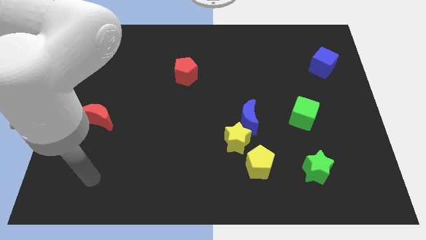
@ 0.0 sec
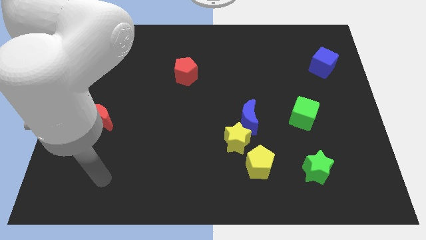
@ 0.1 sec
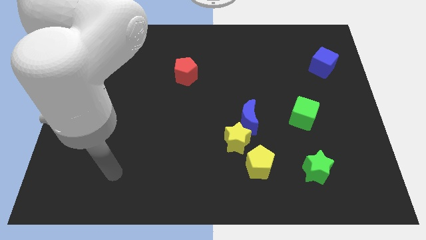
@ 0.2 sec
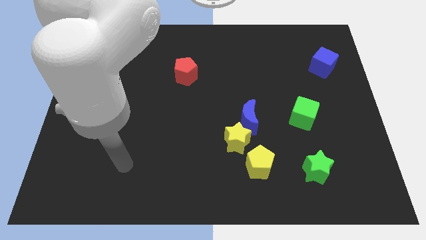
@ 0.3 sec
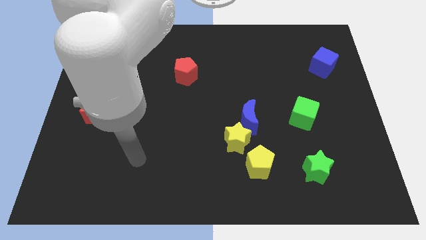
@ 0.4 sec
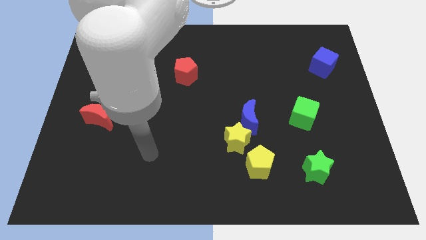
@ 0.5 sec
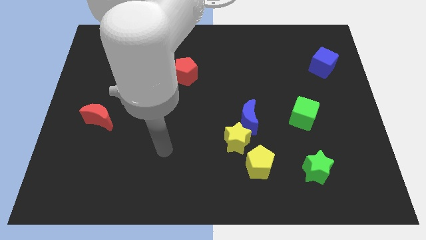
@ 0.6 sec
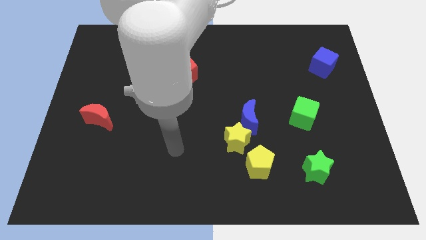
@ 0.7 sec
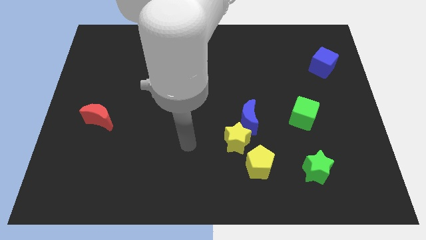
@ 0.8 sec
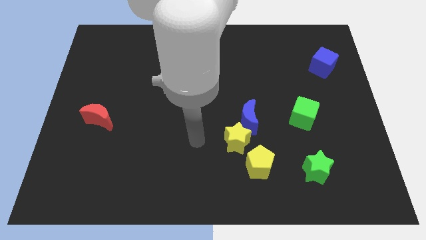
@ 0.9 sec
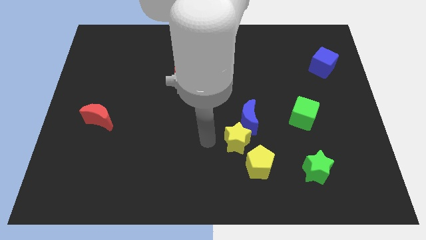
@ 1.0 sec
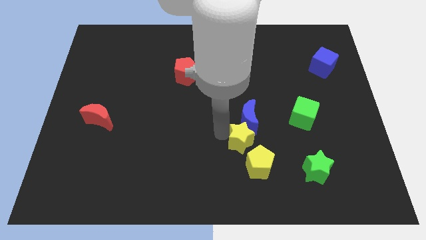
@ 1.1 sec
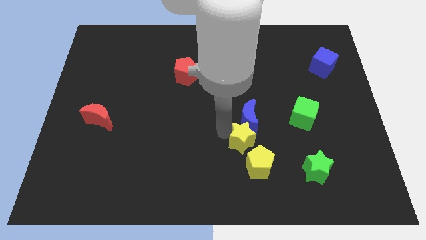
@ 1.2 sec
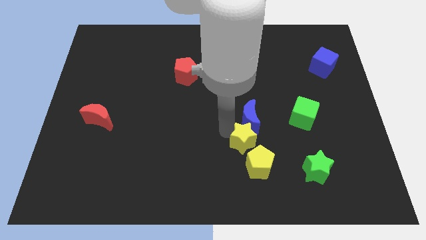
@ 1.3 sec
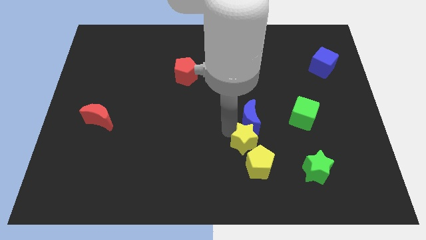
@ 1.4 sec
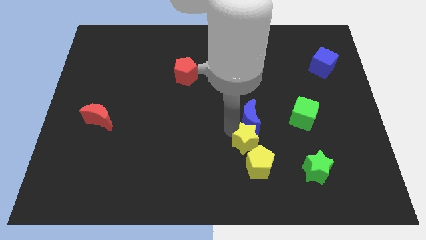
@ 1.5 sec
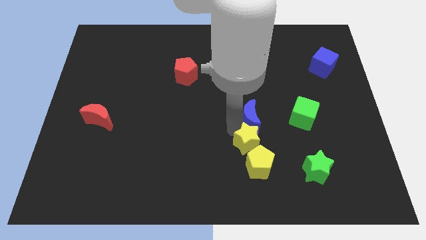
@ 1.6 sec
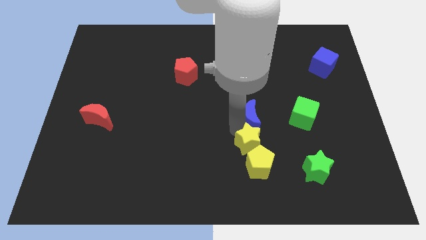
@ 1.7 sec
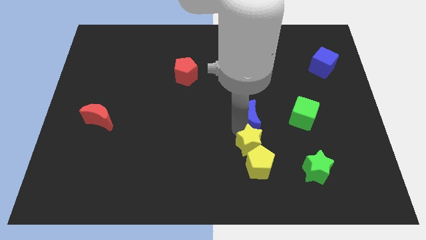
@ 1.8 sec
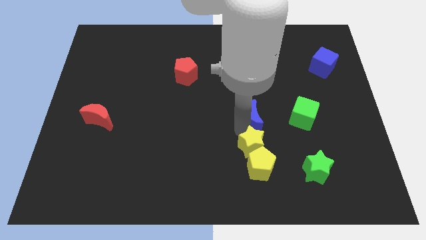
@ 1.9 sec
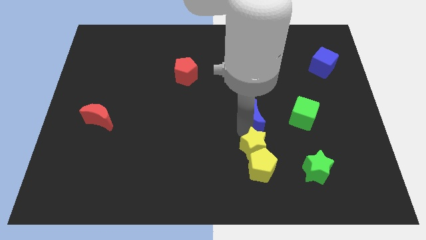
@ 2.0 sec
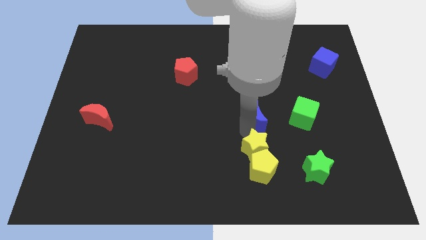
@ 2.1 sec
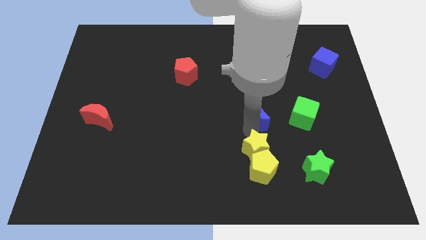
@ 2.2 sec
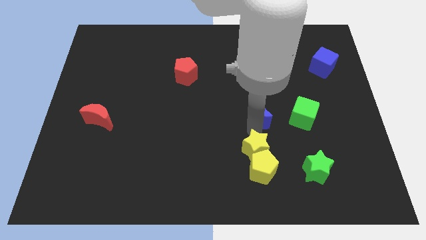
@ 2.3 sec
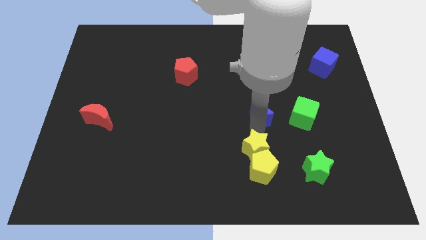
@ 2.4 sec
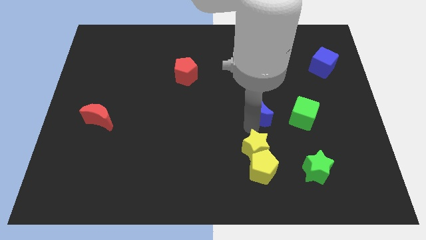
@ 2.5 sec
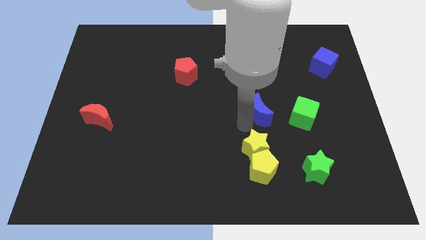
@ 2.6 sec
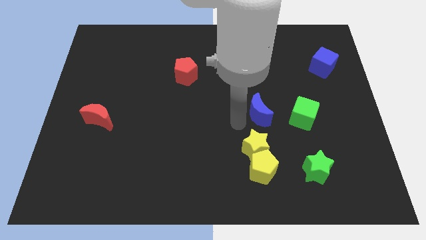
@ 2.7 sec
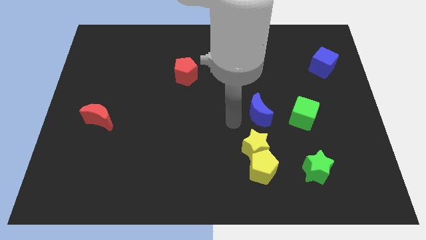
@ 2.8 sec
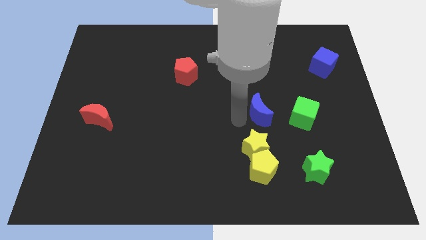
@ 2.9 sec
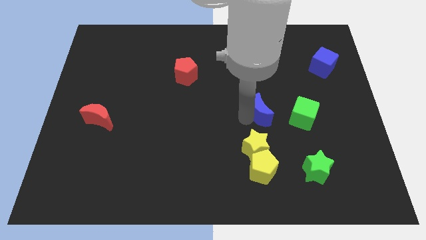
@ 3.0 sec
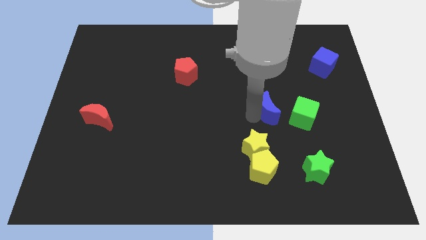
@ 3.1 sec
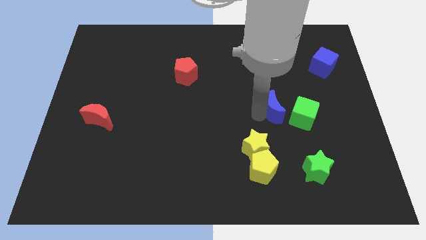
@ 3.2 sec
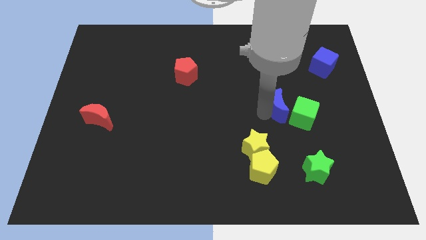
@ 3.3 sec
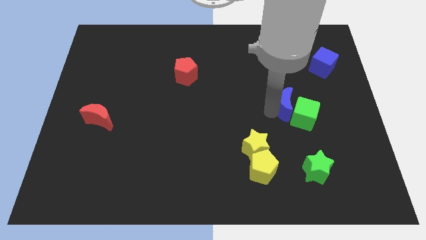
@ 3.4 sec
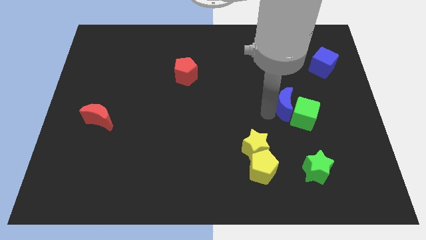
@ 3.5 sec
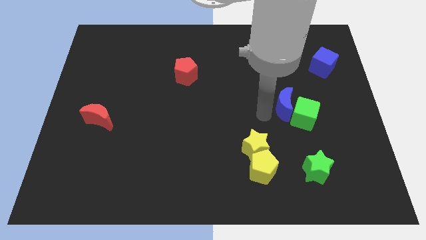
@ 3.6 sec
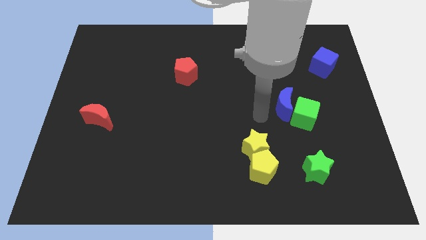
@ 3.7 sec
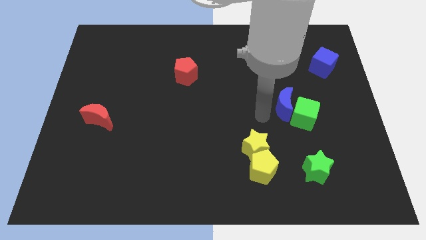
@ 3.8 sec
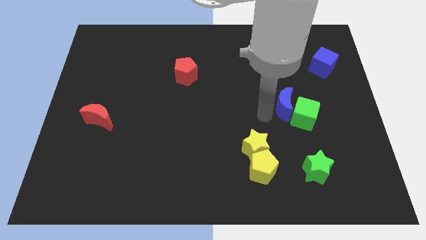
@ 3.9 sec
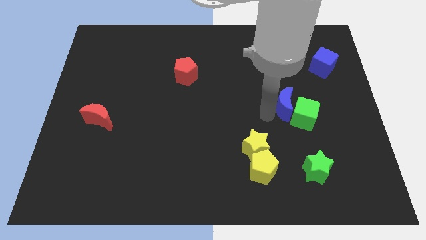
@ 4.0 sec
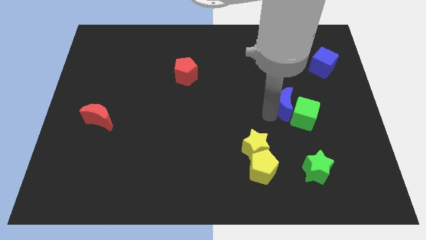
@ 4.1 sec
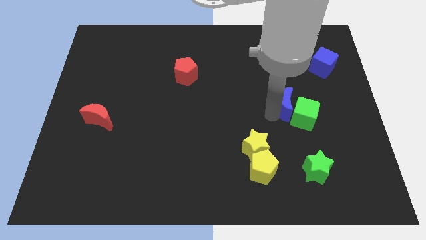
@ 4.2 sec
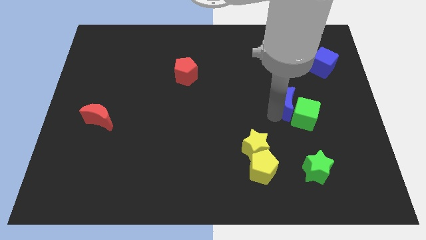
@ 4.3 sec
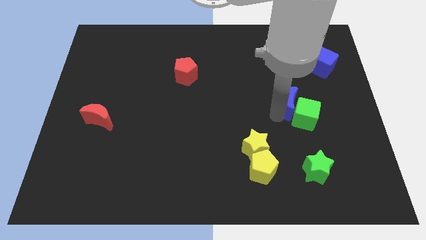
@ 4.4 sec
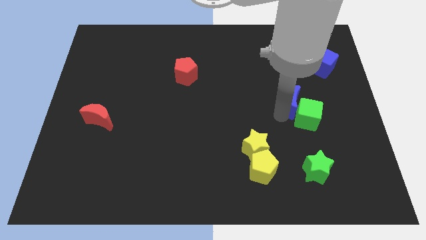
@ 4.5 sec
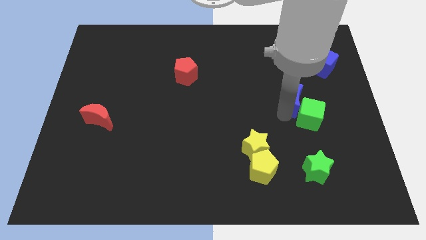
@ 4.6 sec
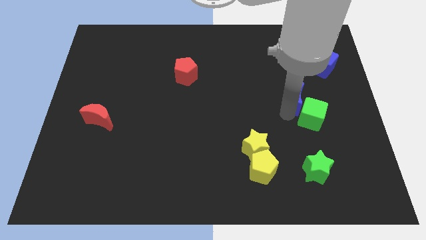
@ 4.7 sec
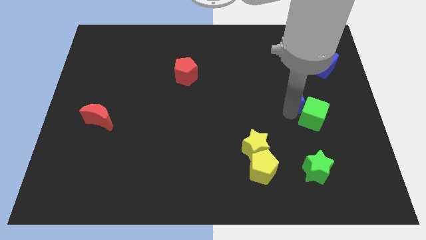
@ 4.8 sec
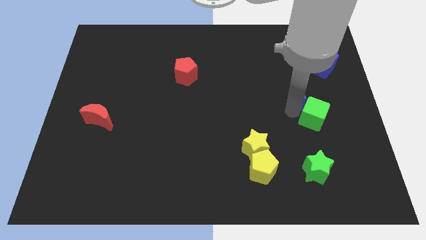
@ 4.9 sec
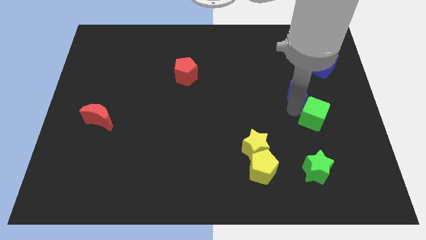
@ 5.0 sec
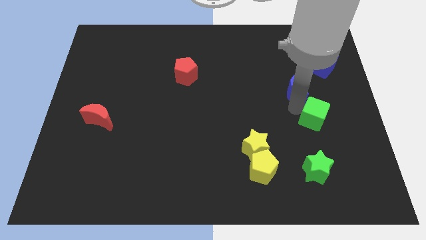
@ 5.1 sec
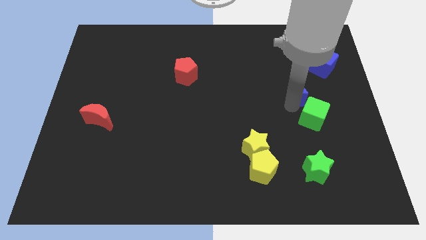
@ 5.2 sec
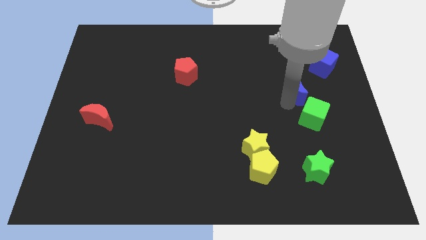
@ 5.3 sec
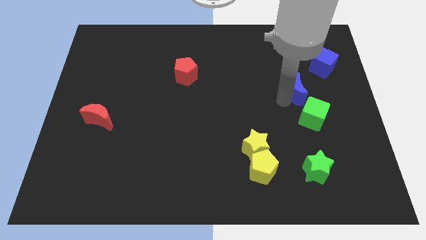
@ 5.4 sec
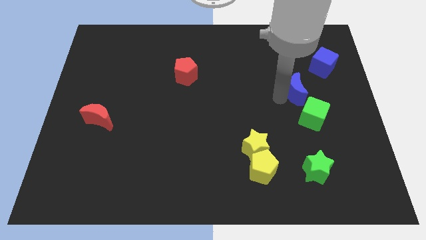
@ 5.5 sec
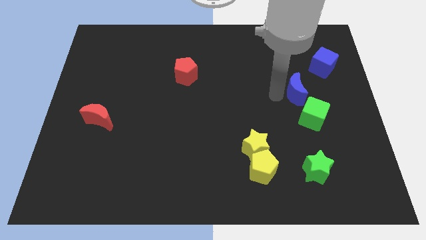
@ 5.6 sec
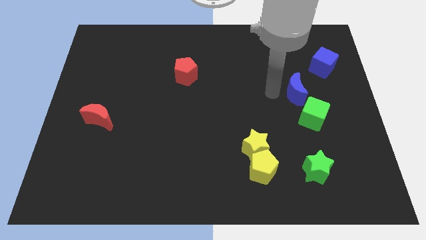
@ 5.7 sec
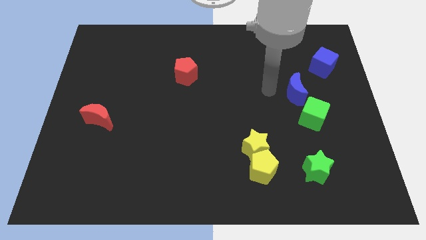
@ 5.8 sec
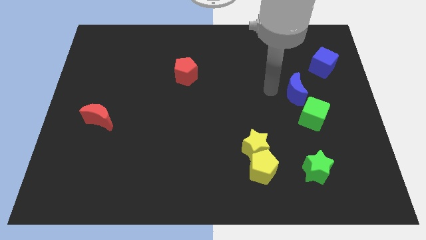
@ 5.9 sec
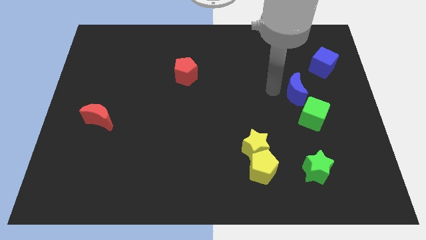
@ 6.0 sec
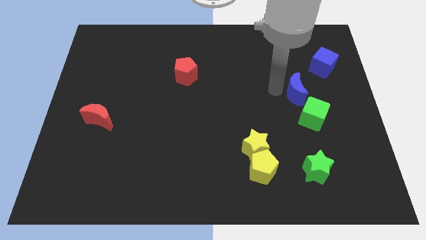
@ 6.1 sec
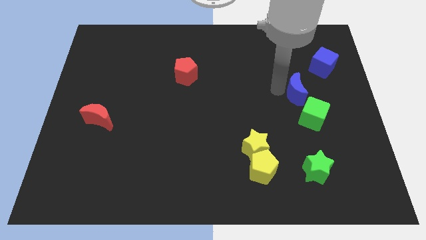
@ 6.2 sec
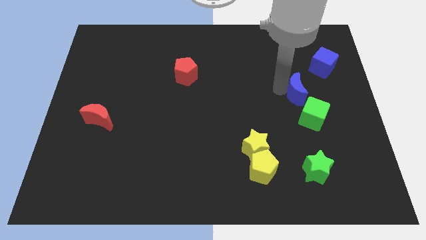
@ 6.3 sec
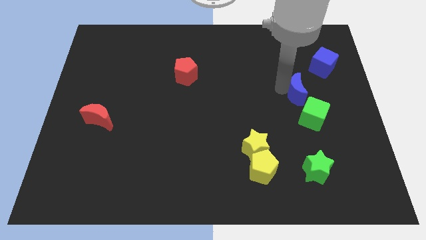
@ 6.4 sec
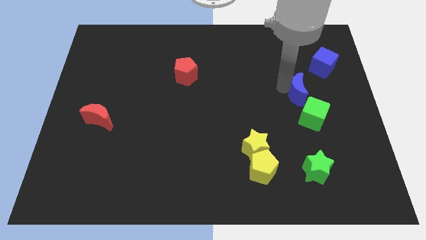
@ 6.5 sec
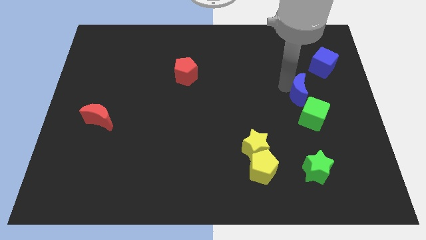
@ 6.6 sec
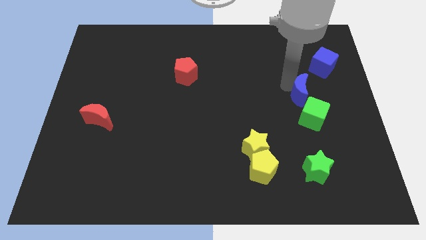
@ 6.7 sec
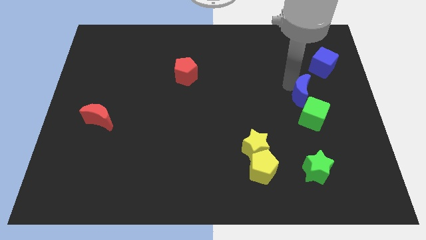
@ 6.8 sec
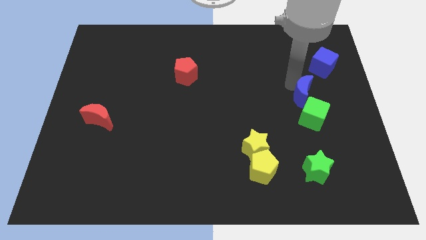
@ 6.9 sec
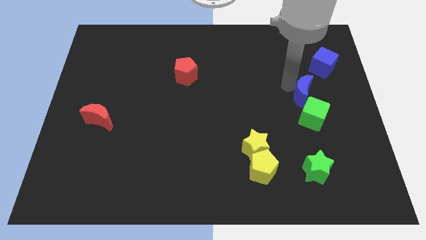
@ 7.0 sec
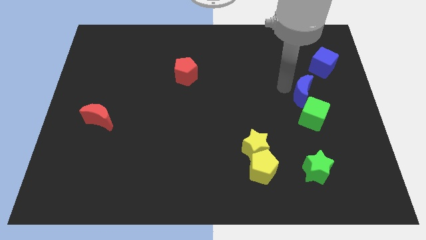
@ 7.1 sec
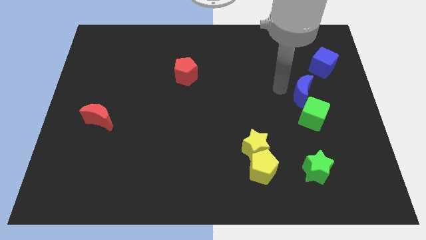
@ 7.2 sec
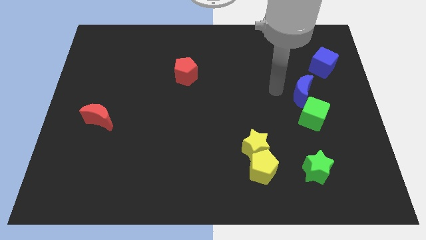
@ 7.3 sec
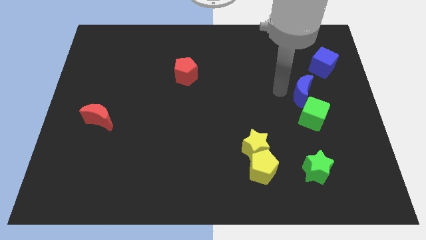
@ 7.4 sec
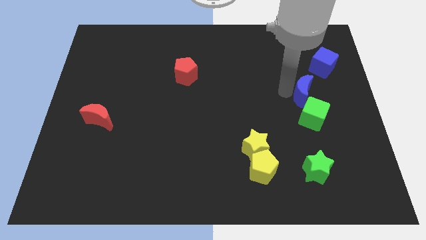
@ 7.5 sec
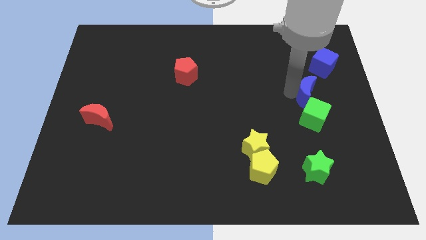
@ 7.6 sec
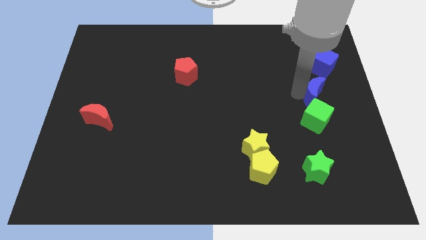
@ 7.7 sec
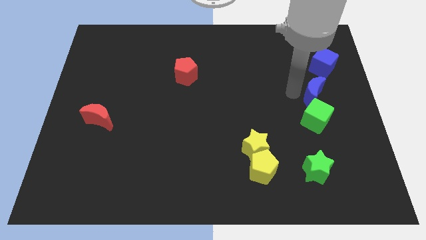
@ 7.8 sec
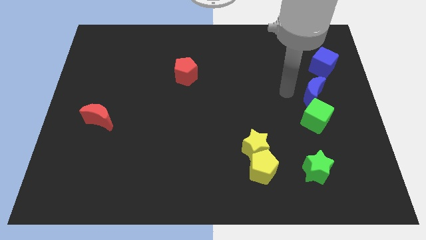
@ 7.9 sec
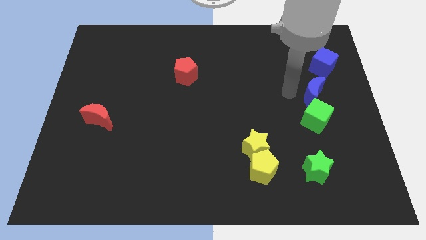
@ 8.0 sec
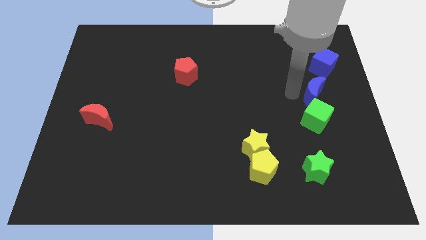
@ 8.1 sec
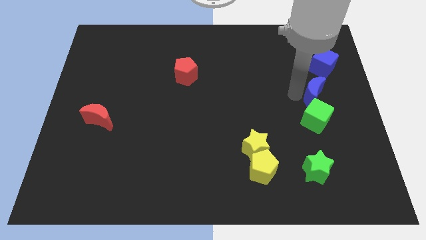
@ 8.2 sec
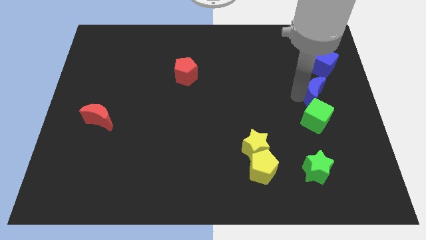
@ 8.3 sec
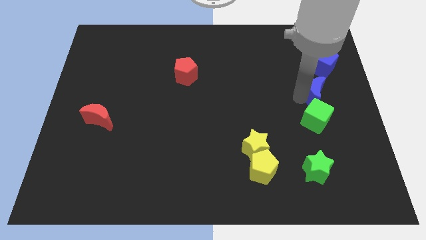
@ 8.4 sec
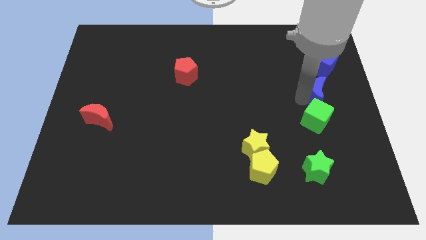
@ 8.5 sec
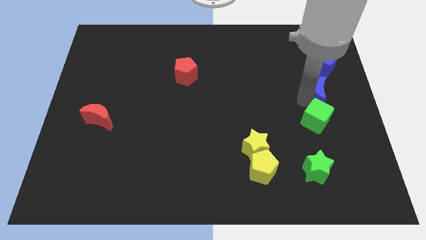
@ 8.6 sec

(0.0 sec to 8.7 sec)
put the blue moon to the right side of the board
